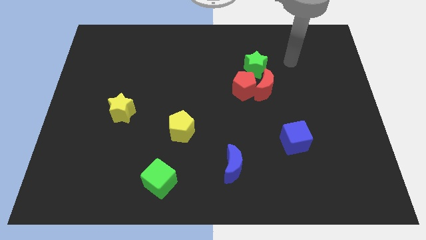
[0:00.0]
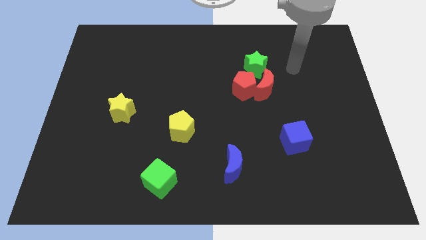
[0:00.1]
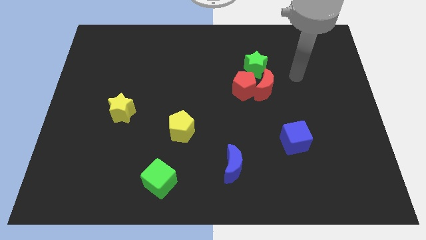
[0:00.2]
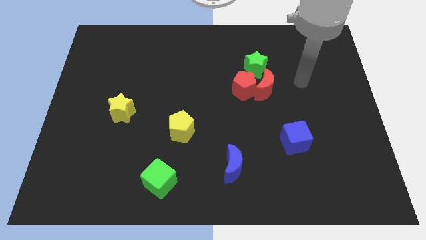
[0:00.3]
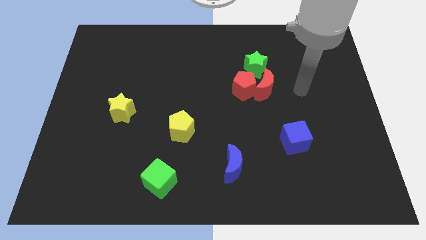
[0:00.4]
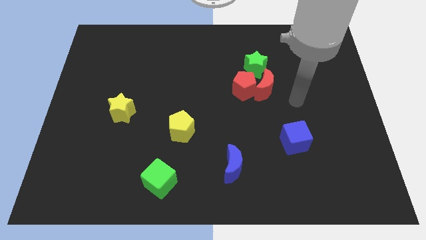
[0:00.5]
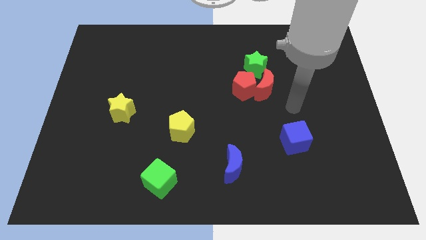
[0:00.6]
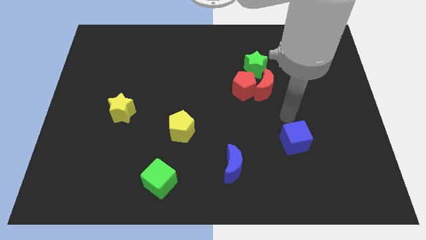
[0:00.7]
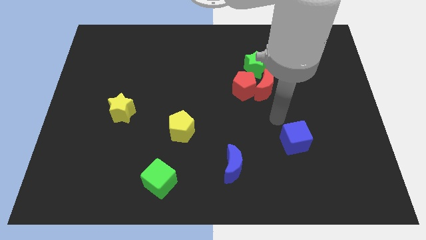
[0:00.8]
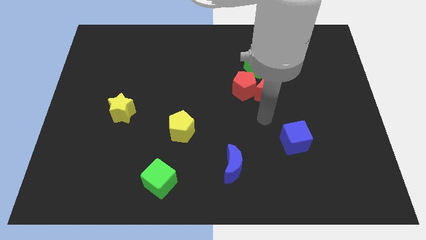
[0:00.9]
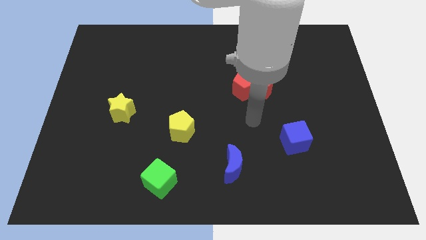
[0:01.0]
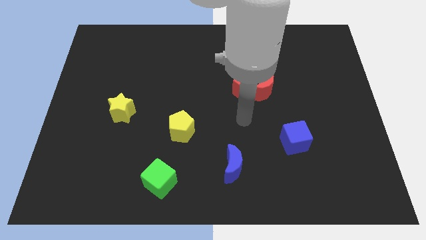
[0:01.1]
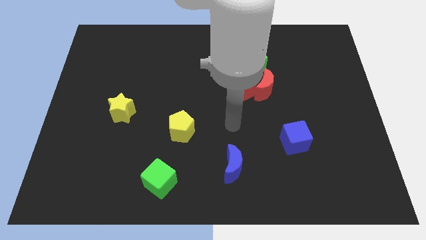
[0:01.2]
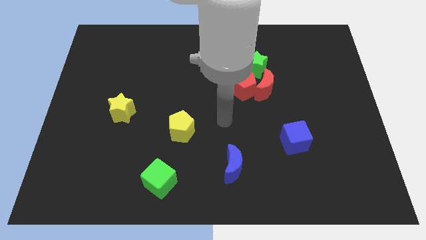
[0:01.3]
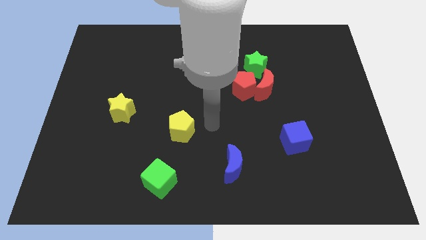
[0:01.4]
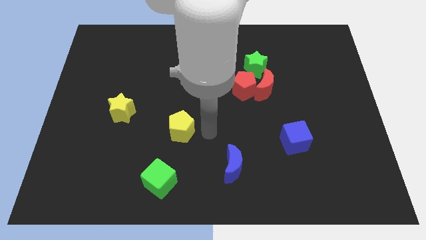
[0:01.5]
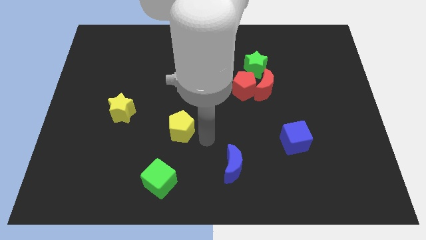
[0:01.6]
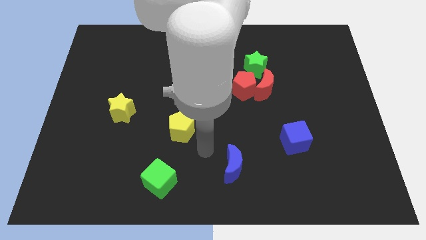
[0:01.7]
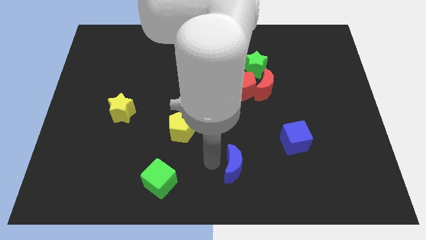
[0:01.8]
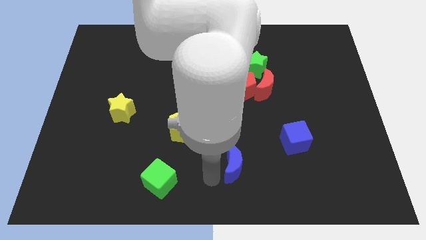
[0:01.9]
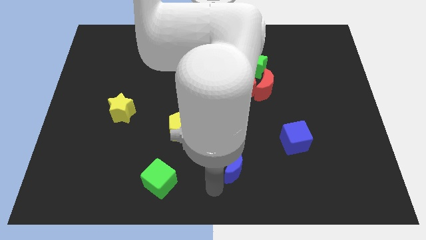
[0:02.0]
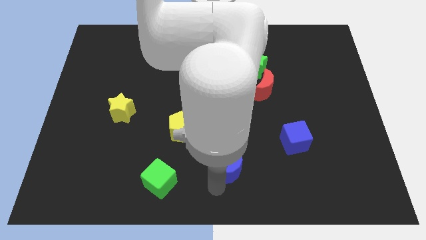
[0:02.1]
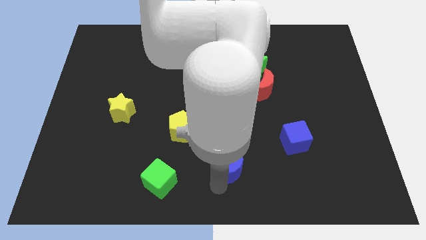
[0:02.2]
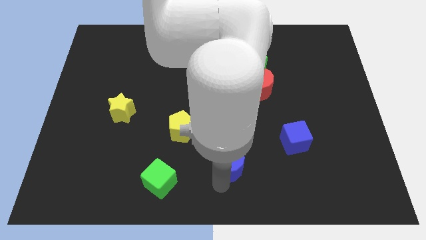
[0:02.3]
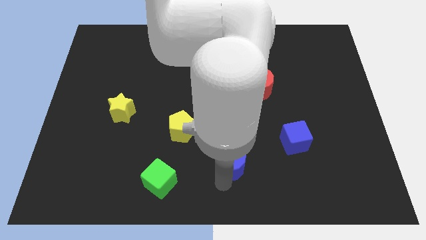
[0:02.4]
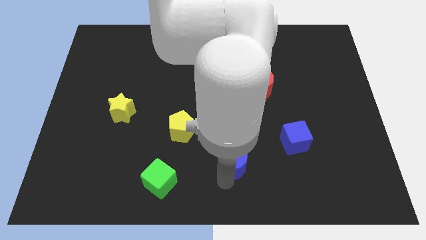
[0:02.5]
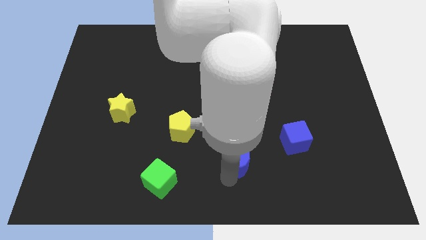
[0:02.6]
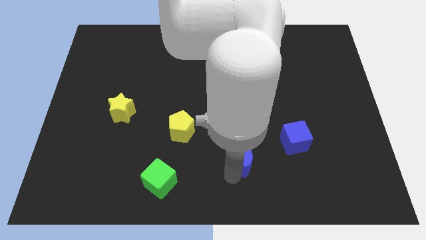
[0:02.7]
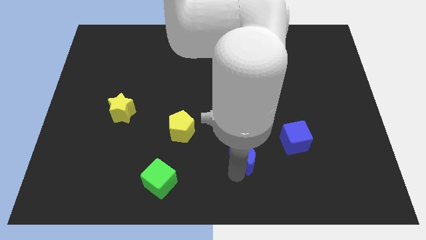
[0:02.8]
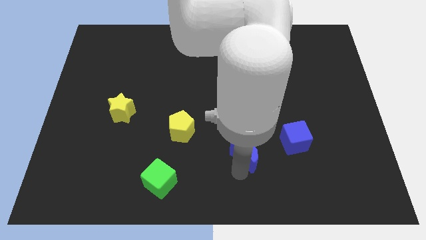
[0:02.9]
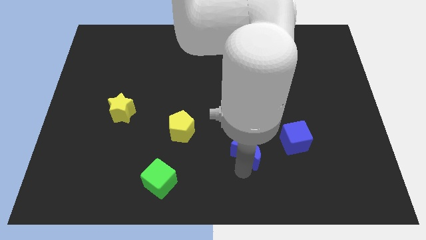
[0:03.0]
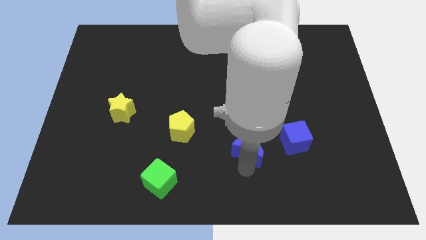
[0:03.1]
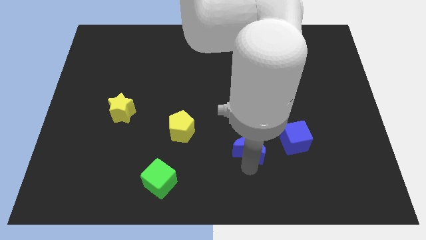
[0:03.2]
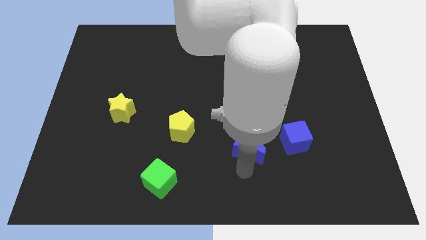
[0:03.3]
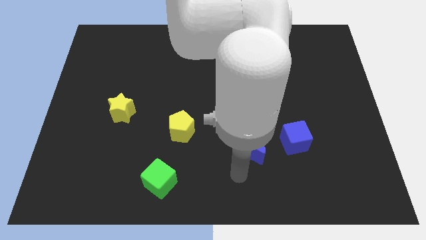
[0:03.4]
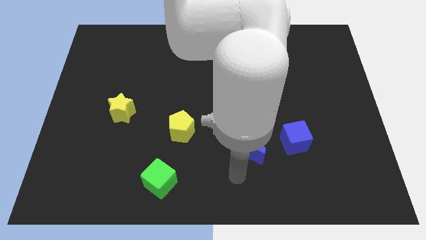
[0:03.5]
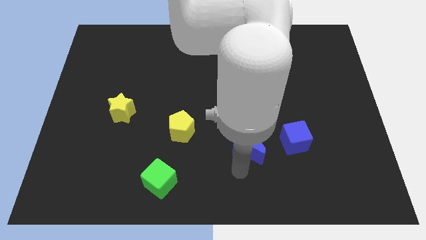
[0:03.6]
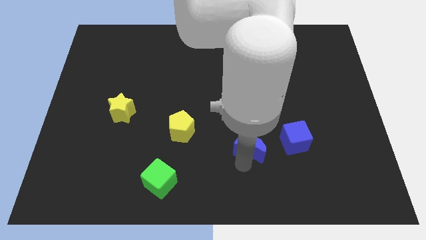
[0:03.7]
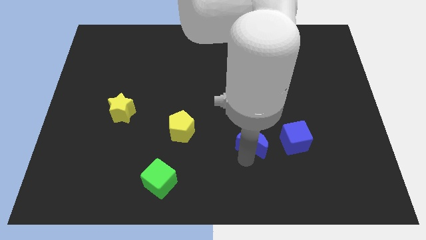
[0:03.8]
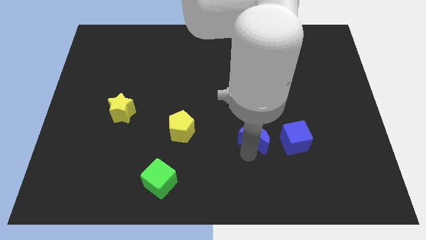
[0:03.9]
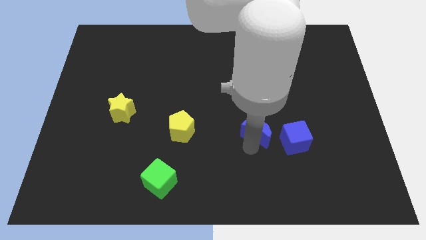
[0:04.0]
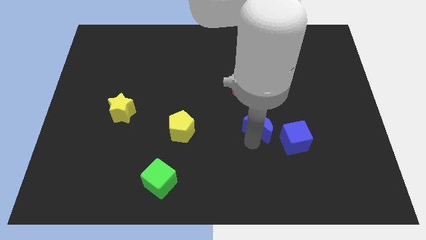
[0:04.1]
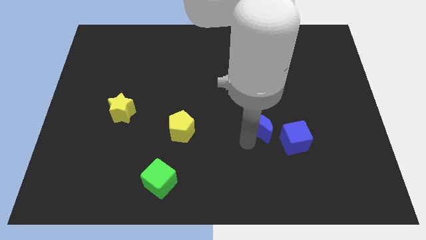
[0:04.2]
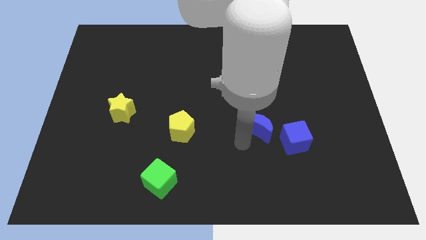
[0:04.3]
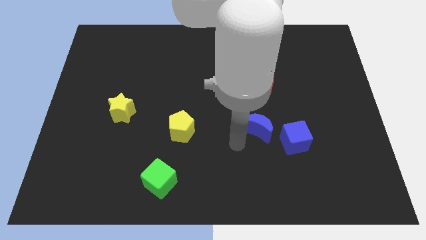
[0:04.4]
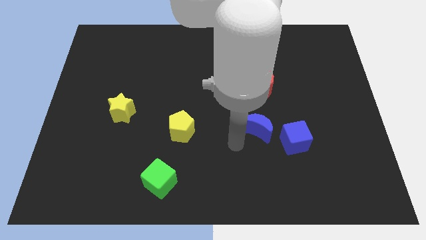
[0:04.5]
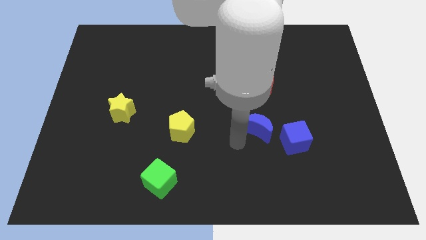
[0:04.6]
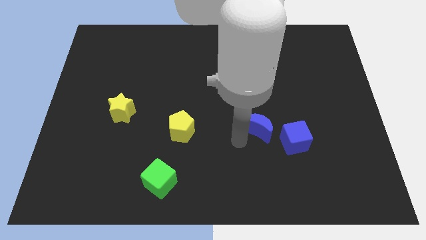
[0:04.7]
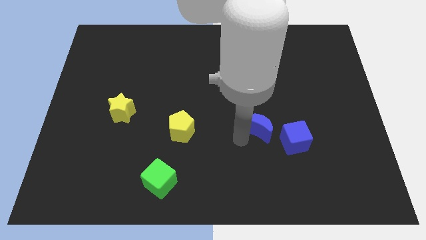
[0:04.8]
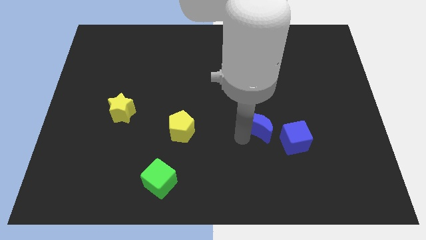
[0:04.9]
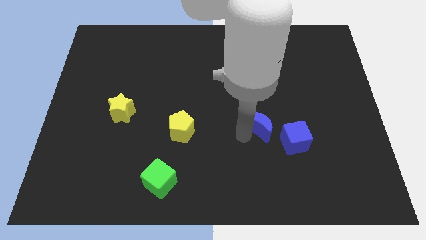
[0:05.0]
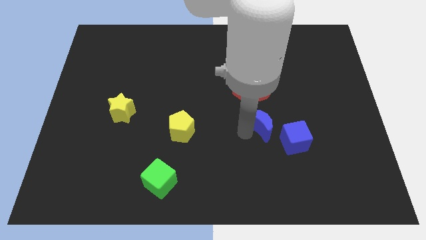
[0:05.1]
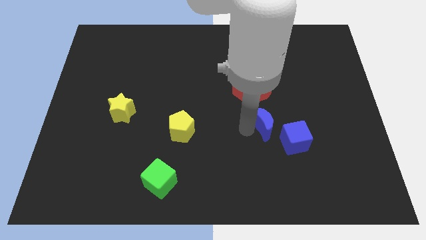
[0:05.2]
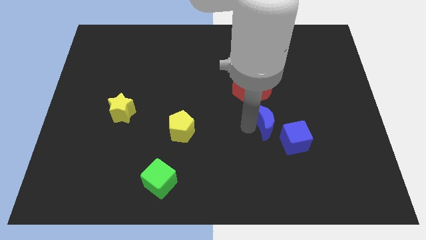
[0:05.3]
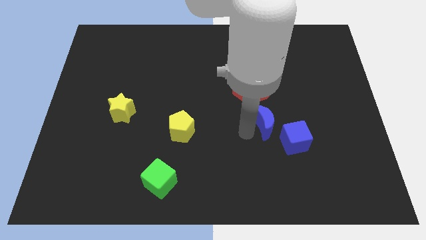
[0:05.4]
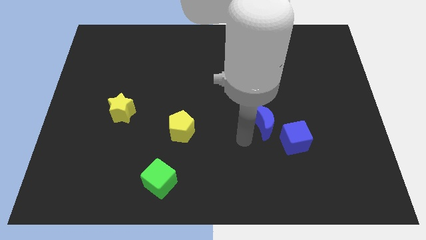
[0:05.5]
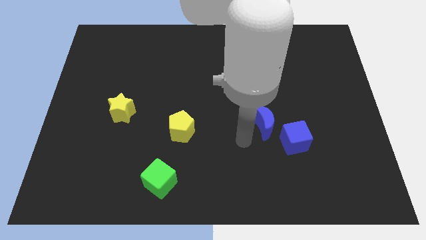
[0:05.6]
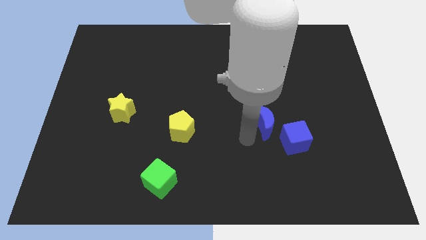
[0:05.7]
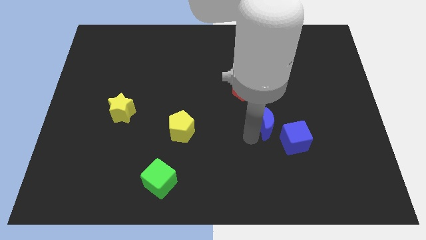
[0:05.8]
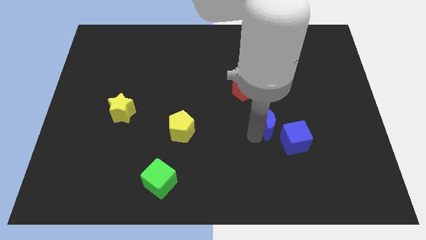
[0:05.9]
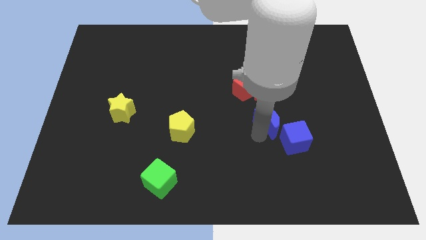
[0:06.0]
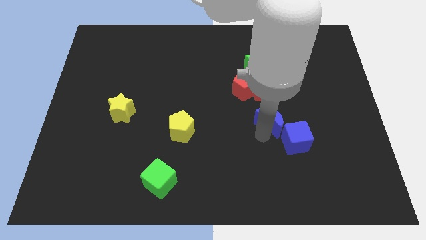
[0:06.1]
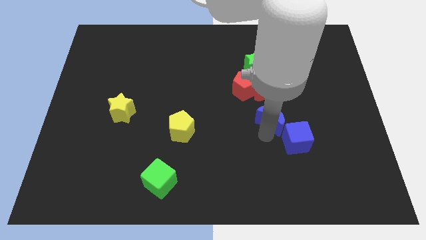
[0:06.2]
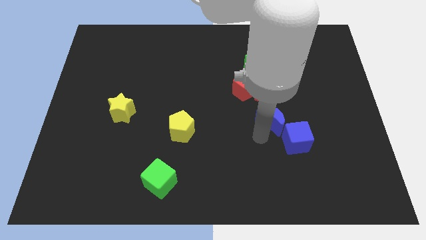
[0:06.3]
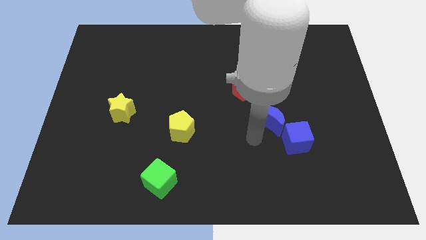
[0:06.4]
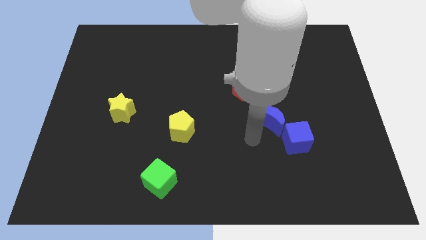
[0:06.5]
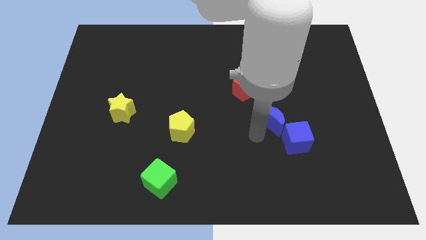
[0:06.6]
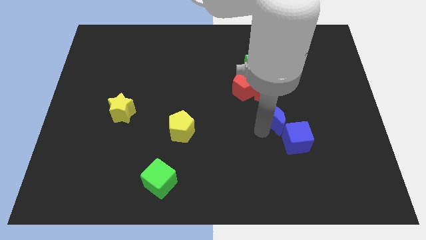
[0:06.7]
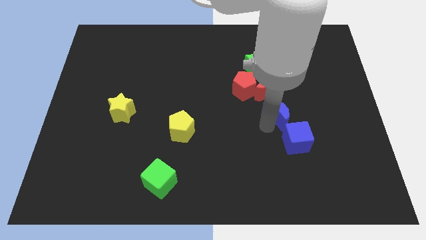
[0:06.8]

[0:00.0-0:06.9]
slide the blue moon to the bottom right of the red moon

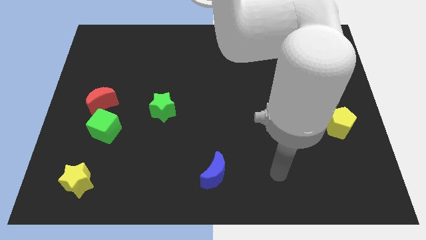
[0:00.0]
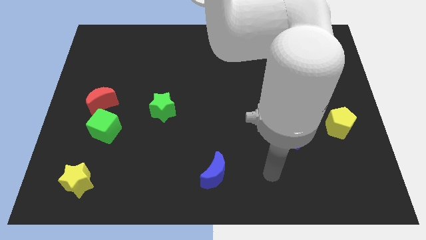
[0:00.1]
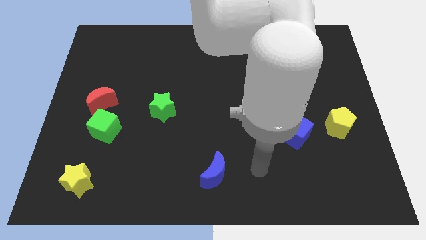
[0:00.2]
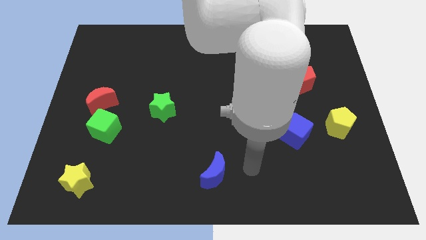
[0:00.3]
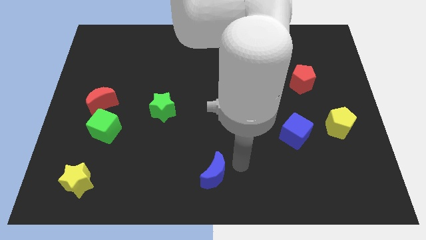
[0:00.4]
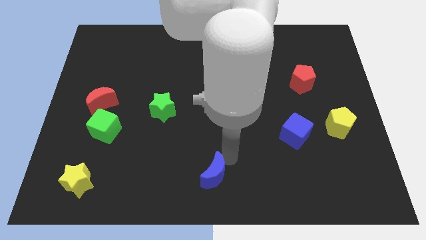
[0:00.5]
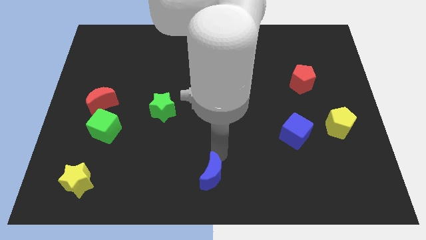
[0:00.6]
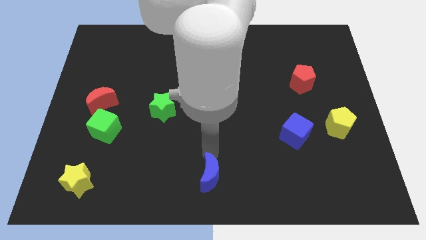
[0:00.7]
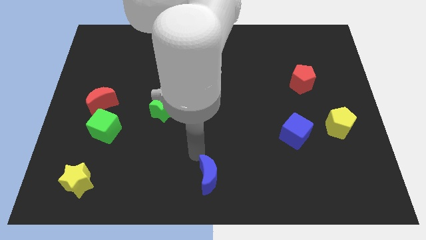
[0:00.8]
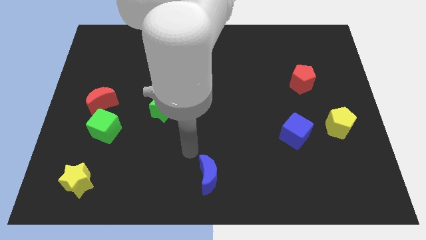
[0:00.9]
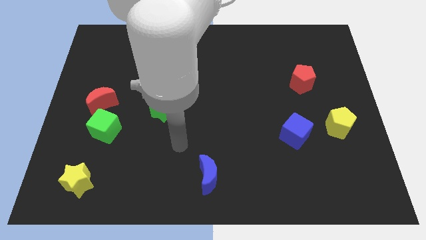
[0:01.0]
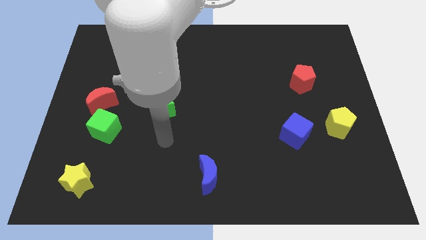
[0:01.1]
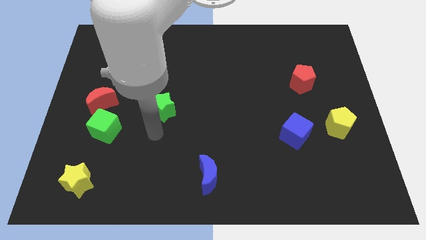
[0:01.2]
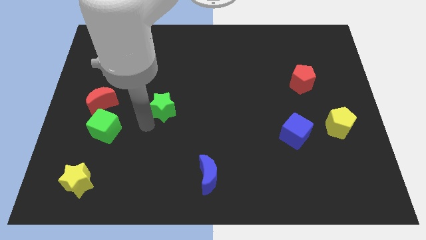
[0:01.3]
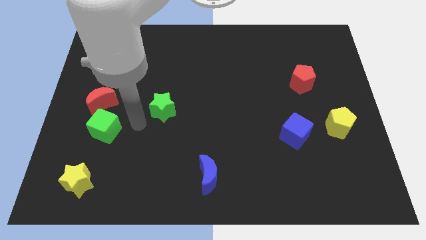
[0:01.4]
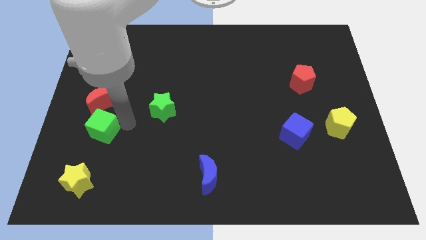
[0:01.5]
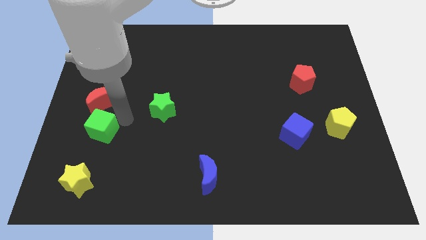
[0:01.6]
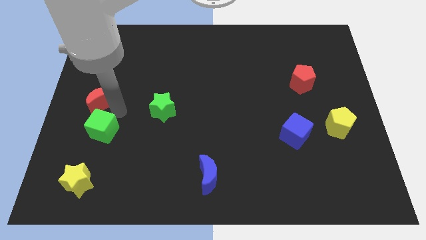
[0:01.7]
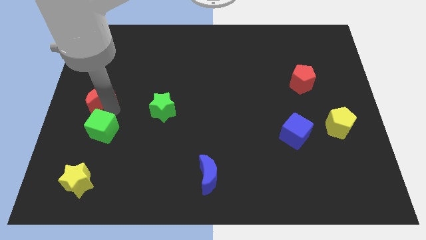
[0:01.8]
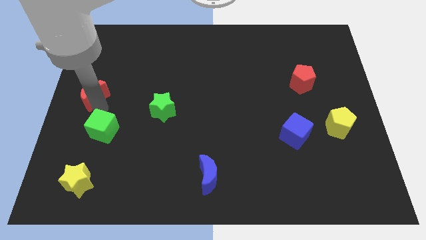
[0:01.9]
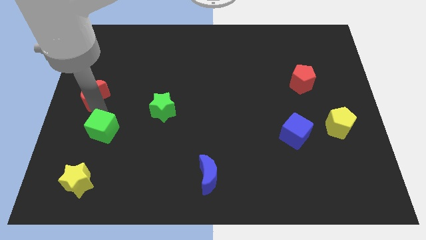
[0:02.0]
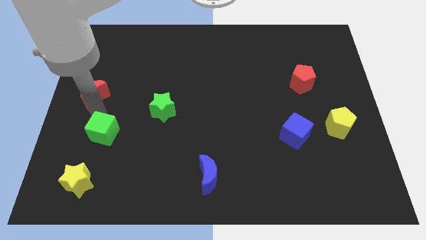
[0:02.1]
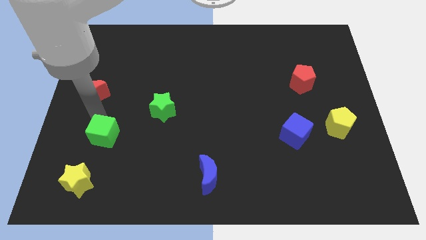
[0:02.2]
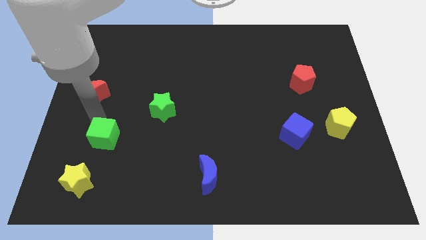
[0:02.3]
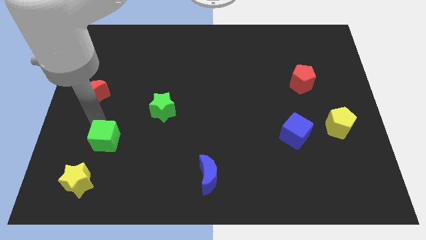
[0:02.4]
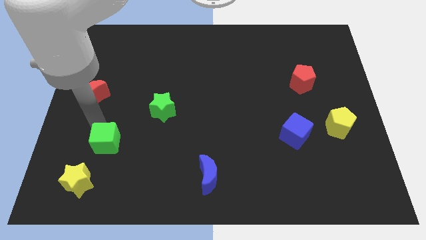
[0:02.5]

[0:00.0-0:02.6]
slide the green cube to the top right side of the yellow star
